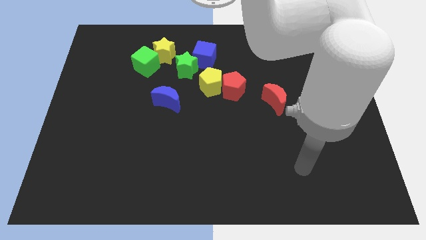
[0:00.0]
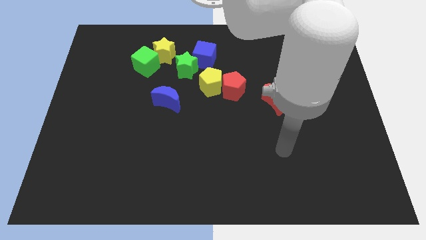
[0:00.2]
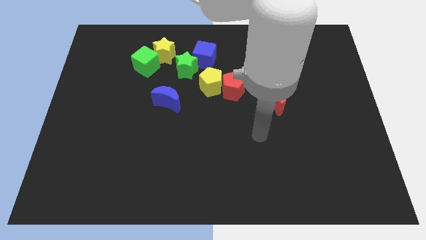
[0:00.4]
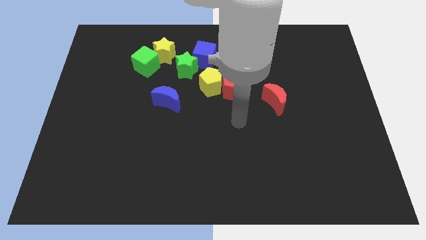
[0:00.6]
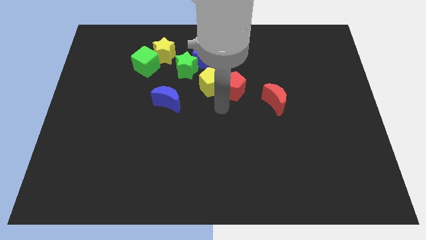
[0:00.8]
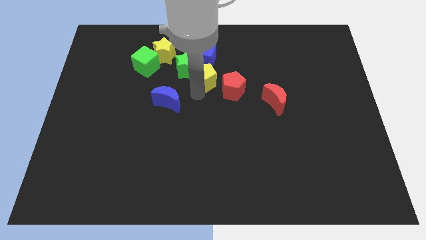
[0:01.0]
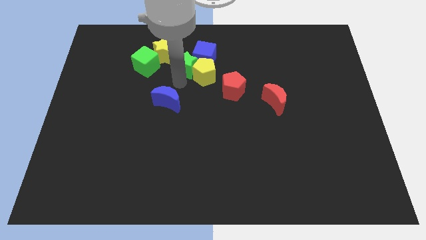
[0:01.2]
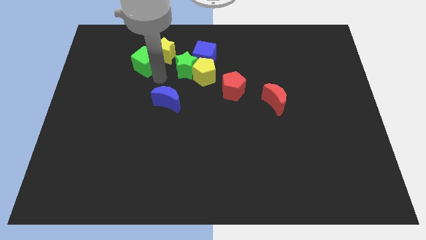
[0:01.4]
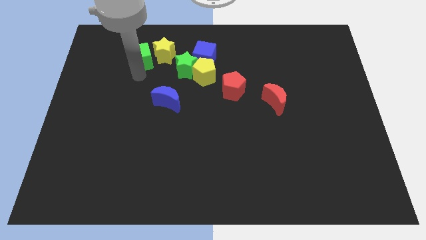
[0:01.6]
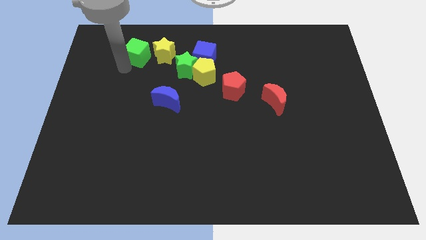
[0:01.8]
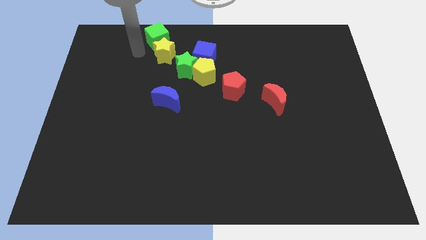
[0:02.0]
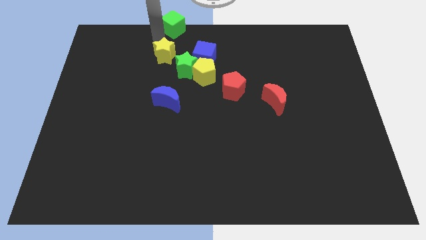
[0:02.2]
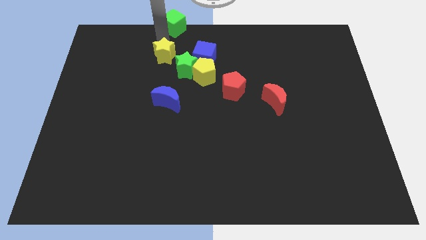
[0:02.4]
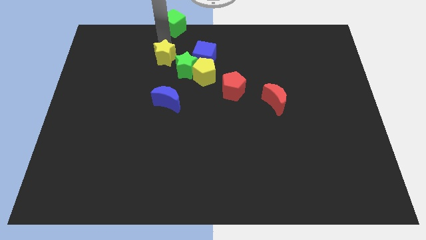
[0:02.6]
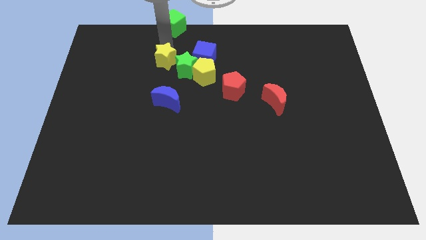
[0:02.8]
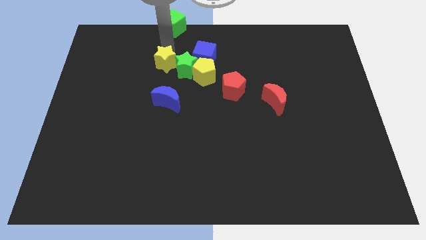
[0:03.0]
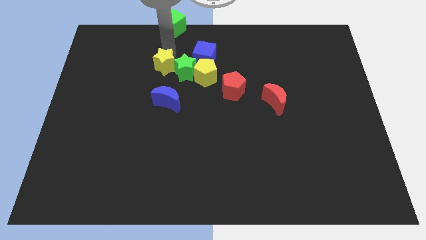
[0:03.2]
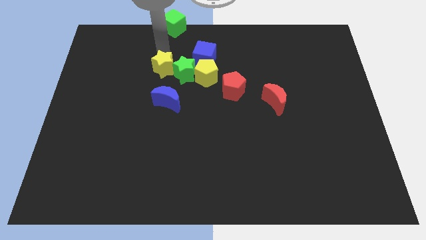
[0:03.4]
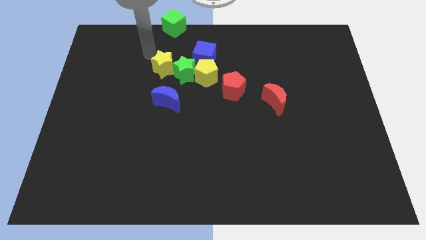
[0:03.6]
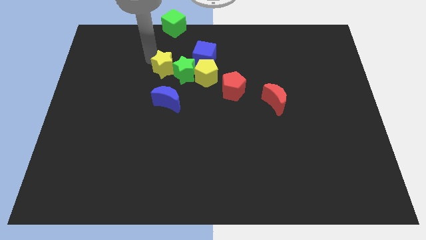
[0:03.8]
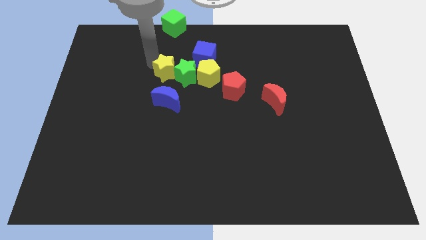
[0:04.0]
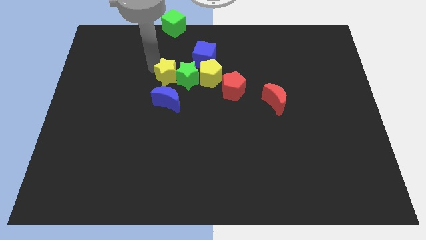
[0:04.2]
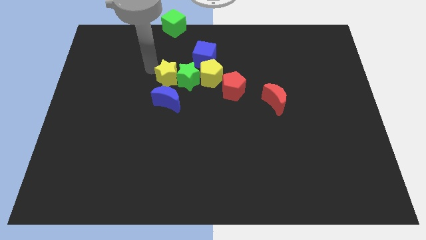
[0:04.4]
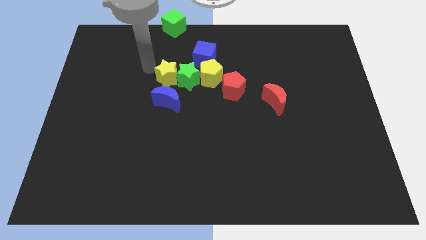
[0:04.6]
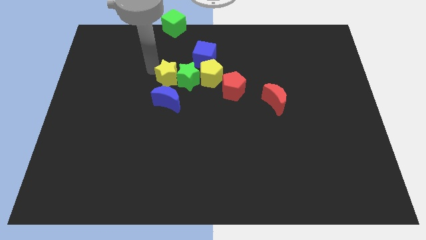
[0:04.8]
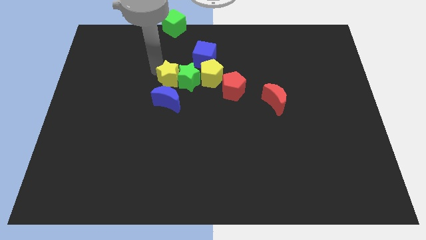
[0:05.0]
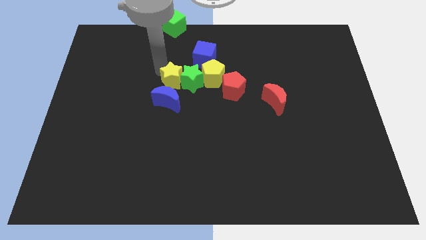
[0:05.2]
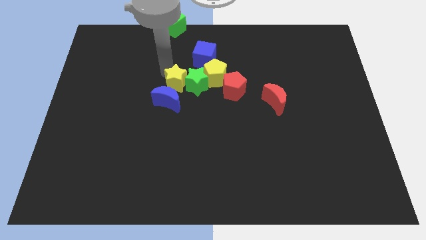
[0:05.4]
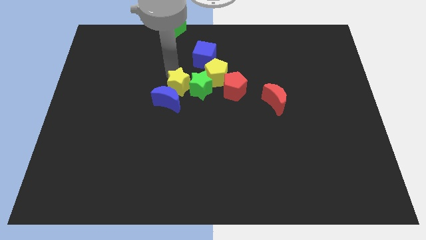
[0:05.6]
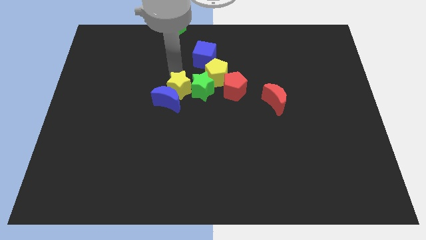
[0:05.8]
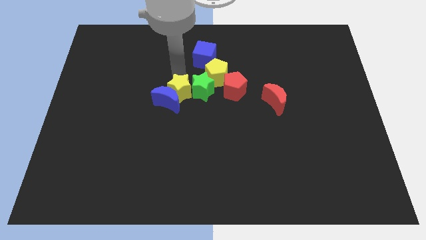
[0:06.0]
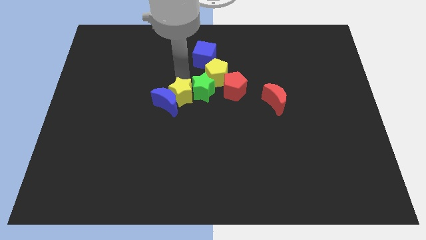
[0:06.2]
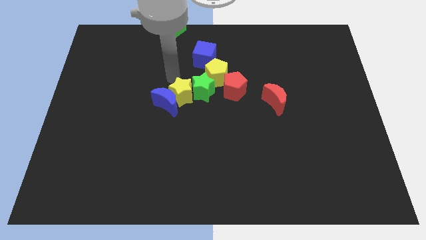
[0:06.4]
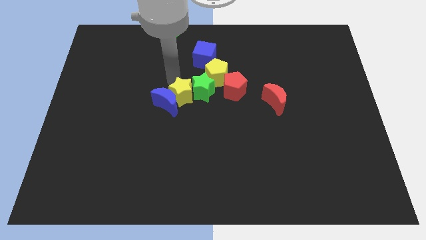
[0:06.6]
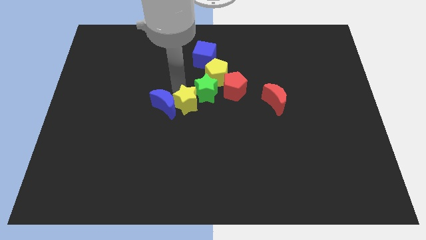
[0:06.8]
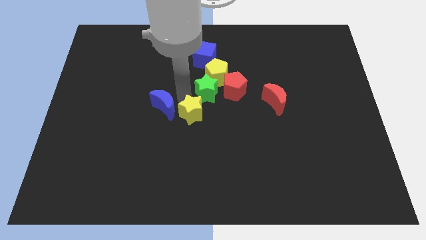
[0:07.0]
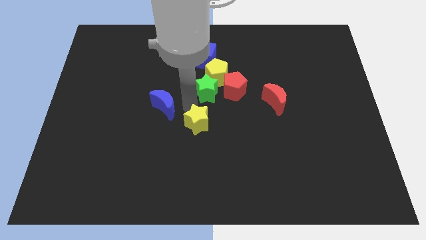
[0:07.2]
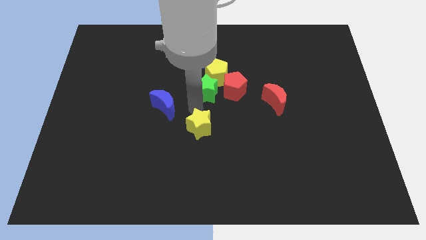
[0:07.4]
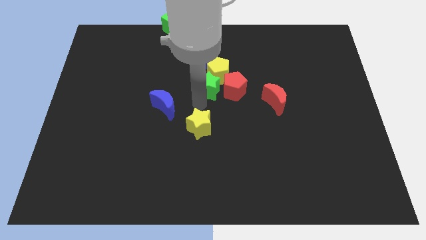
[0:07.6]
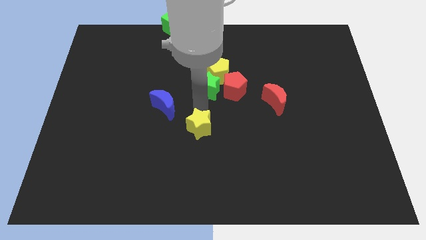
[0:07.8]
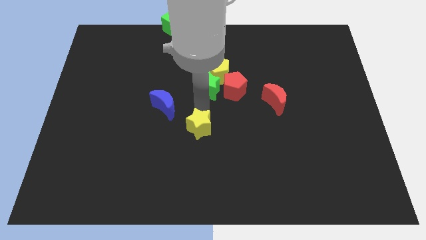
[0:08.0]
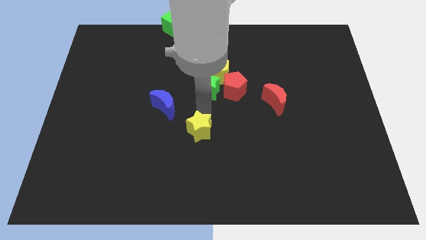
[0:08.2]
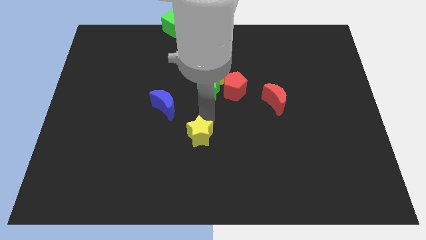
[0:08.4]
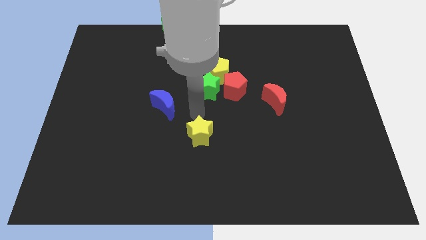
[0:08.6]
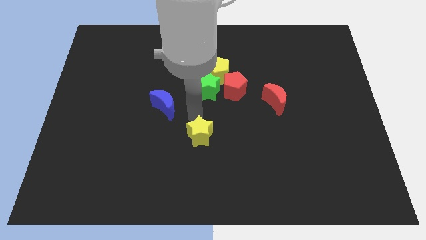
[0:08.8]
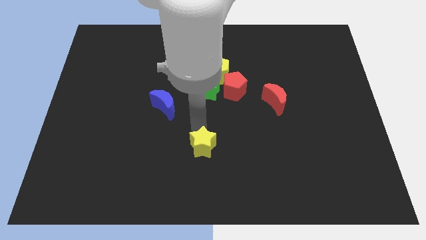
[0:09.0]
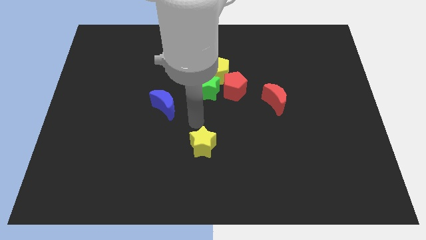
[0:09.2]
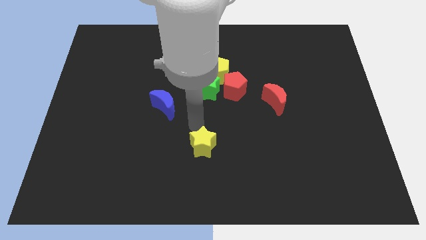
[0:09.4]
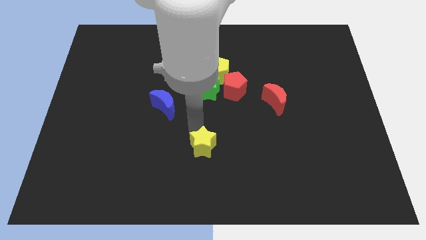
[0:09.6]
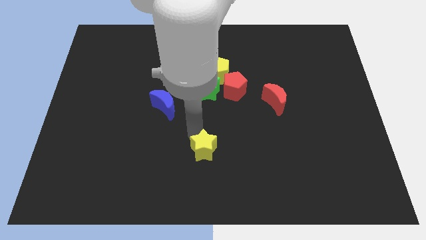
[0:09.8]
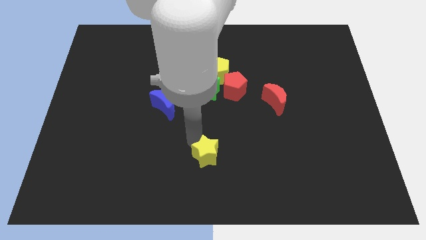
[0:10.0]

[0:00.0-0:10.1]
move the yellow star to the bottom

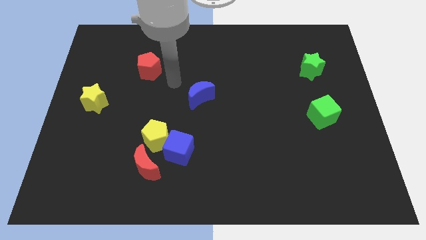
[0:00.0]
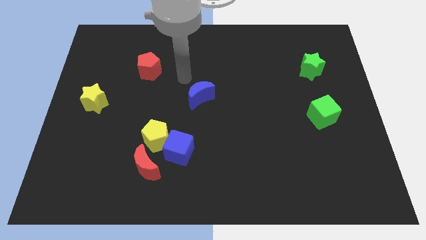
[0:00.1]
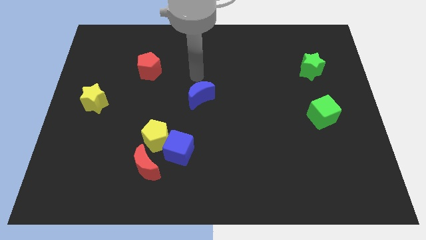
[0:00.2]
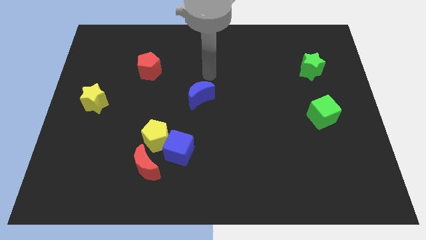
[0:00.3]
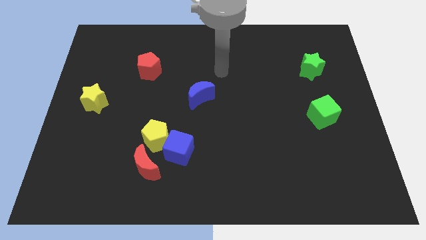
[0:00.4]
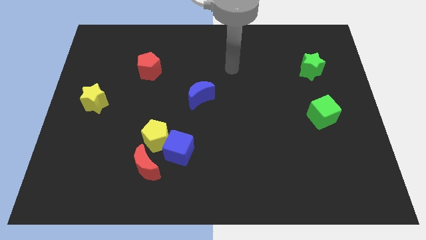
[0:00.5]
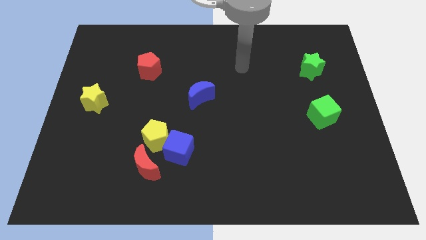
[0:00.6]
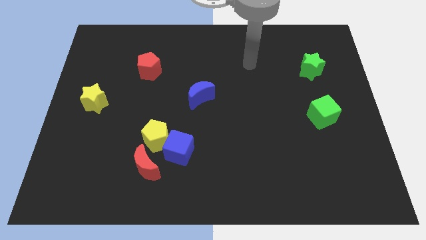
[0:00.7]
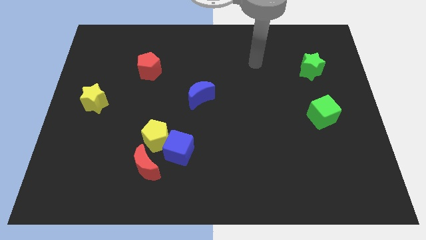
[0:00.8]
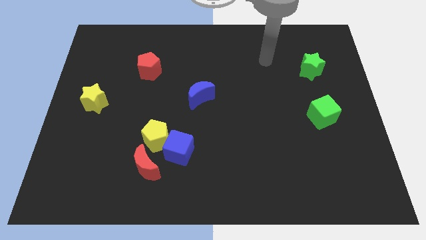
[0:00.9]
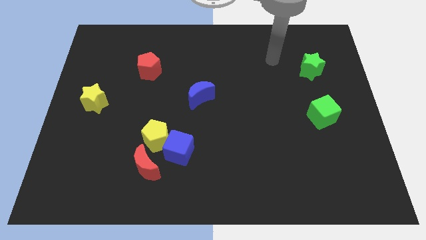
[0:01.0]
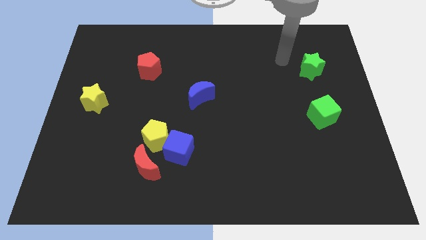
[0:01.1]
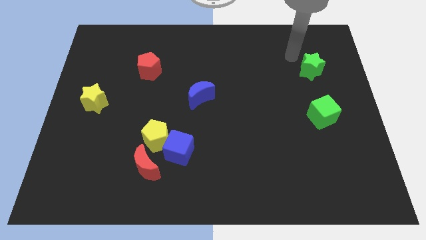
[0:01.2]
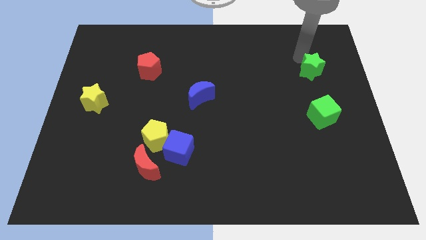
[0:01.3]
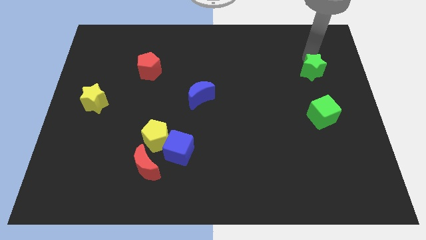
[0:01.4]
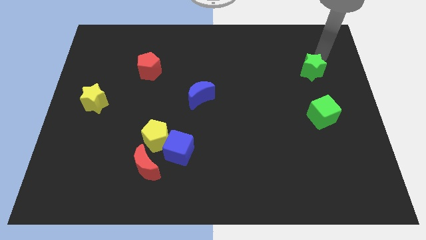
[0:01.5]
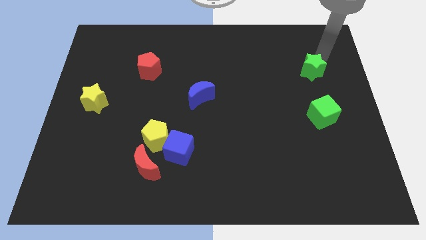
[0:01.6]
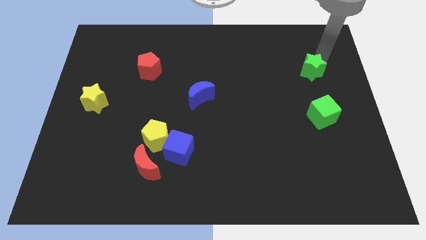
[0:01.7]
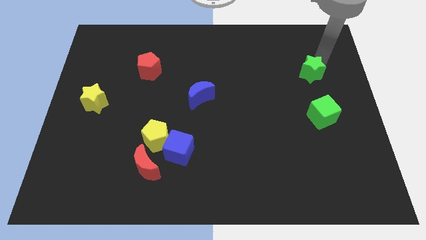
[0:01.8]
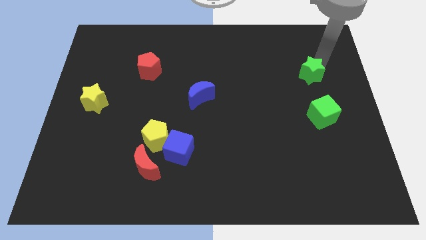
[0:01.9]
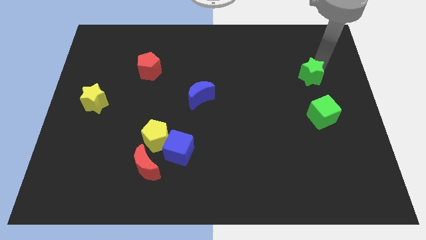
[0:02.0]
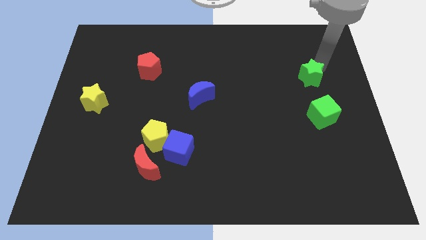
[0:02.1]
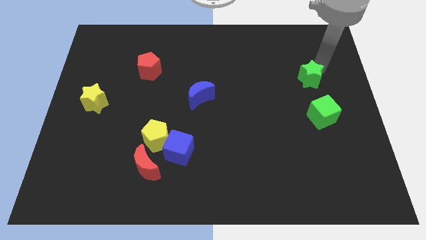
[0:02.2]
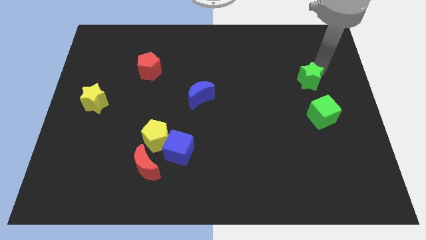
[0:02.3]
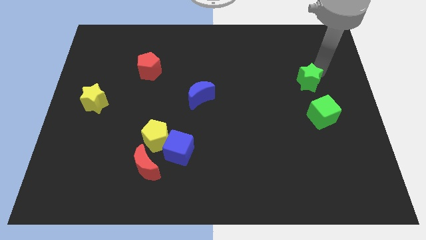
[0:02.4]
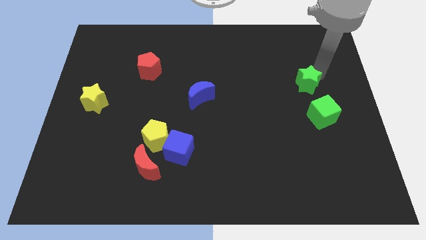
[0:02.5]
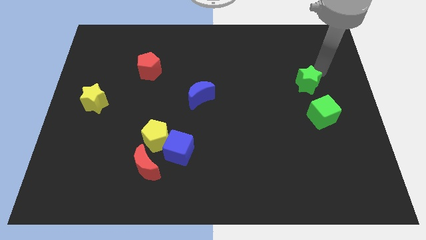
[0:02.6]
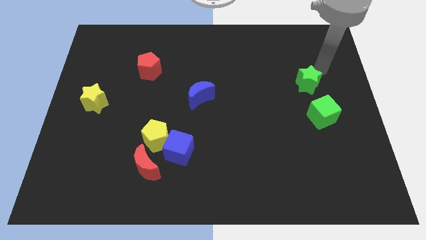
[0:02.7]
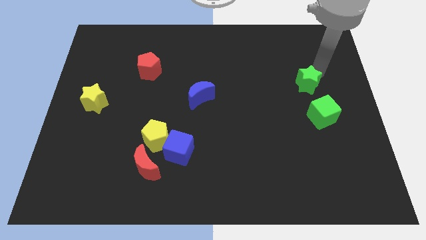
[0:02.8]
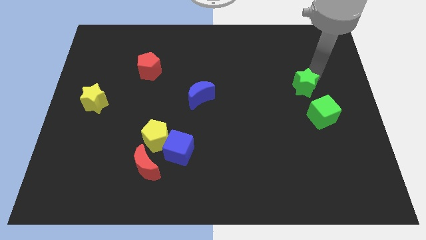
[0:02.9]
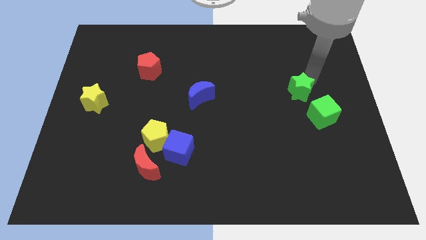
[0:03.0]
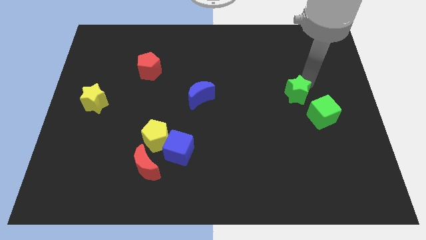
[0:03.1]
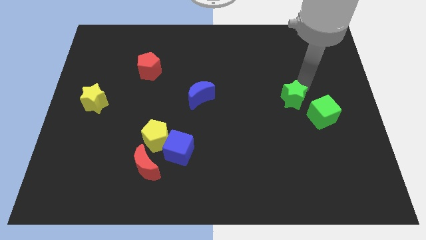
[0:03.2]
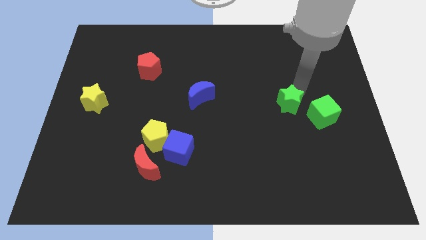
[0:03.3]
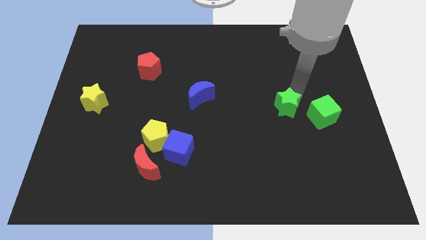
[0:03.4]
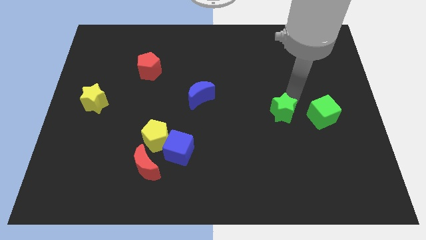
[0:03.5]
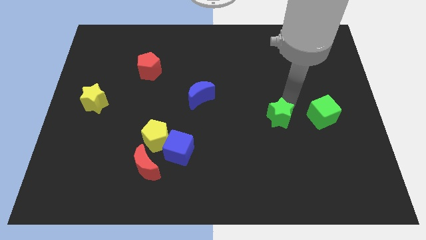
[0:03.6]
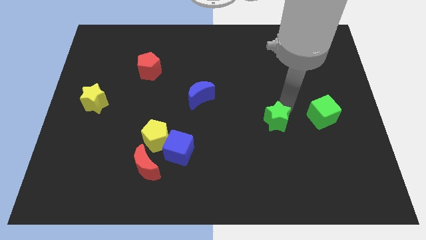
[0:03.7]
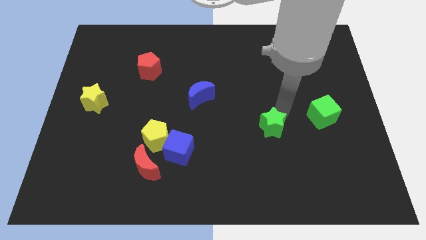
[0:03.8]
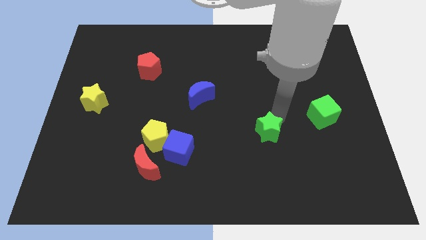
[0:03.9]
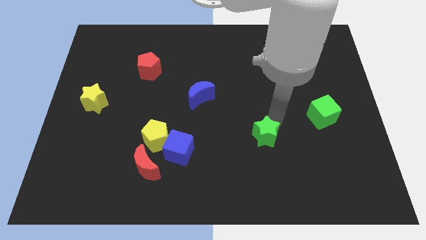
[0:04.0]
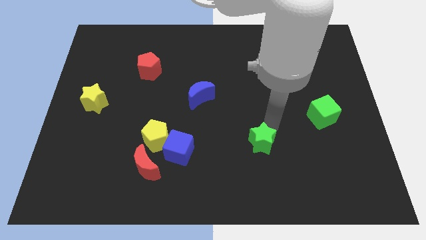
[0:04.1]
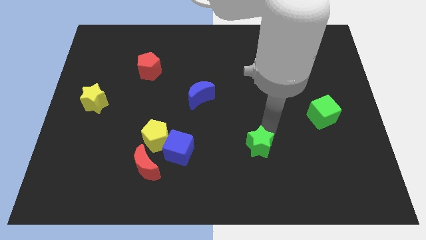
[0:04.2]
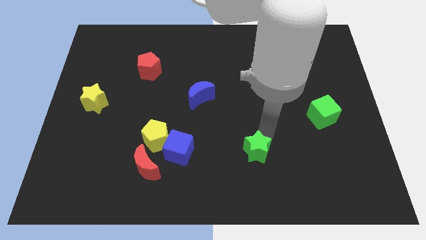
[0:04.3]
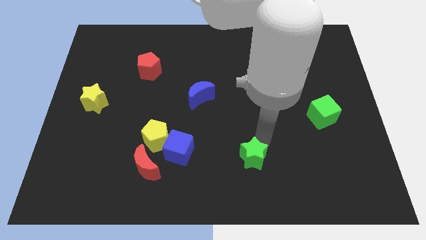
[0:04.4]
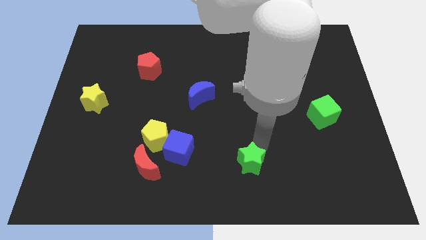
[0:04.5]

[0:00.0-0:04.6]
push the green star to the bottom
